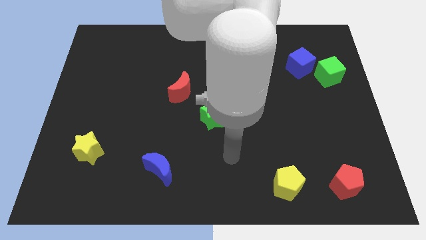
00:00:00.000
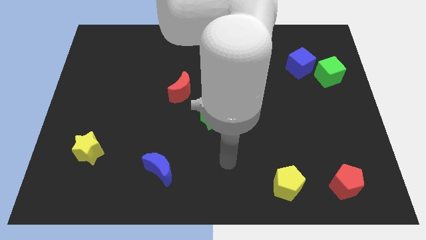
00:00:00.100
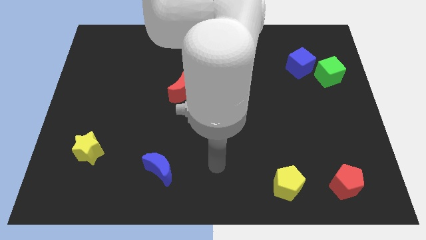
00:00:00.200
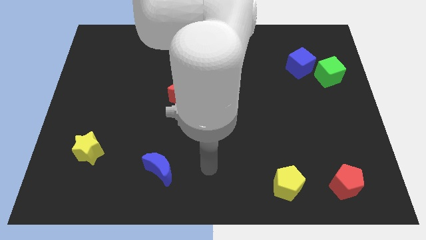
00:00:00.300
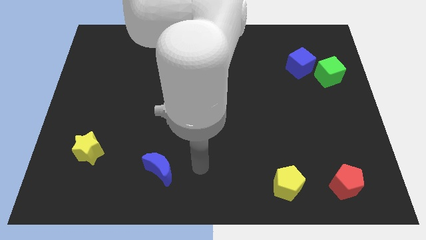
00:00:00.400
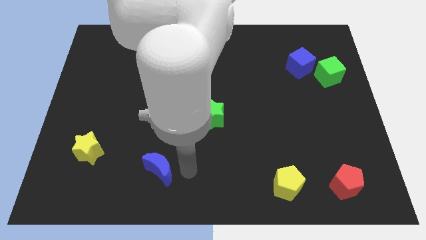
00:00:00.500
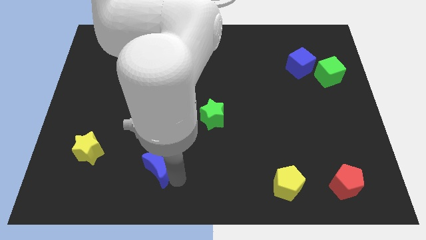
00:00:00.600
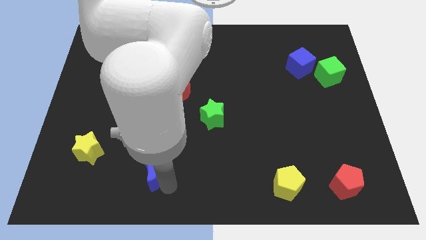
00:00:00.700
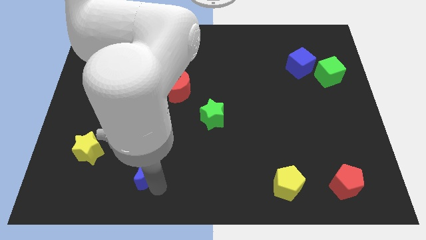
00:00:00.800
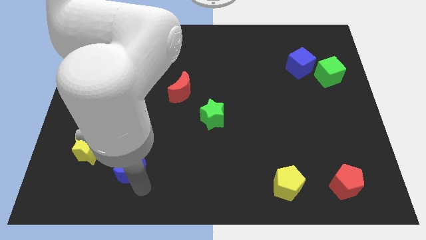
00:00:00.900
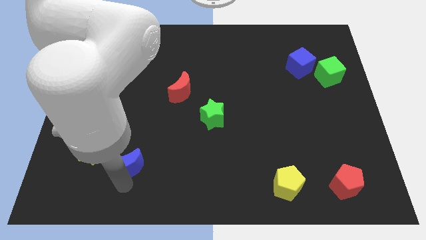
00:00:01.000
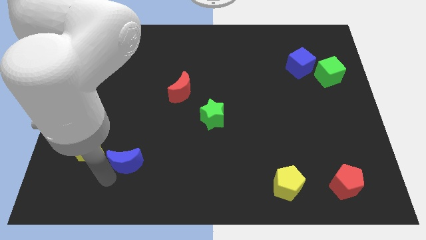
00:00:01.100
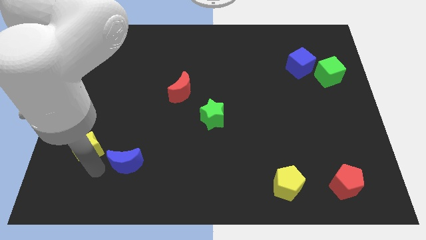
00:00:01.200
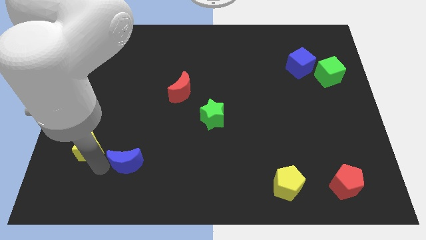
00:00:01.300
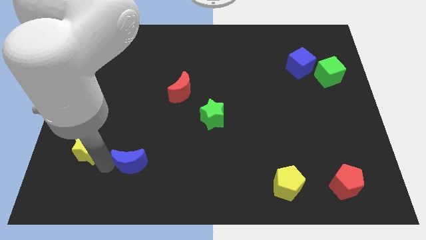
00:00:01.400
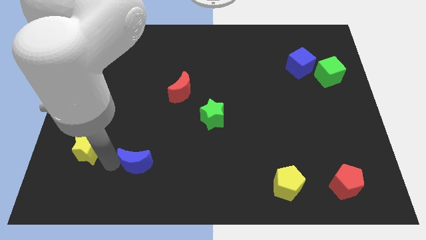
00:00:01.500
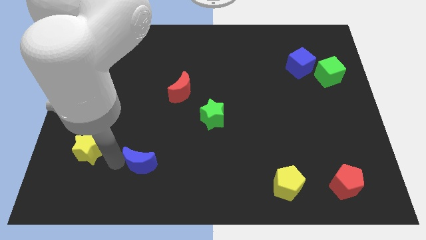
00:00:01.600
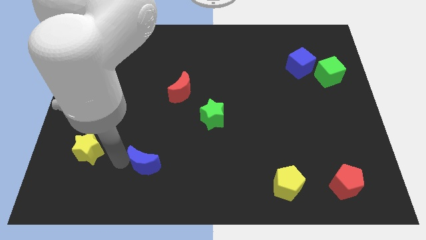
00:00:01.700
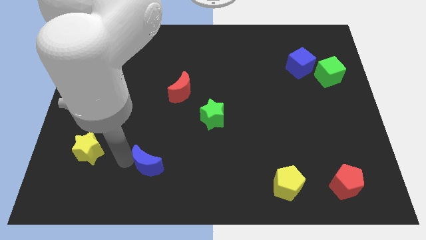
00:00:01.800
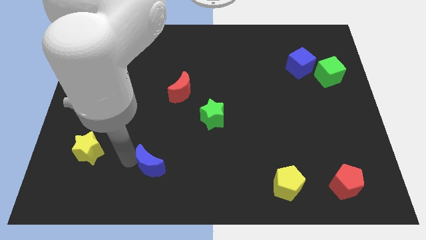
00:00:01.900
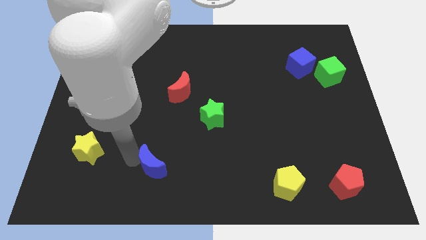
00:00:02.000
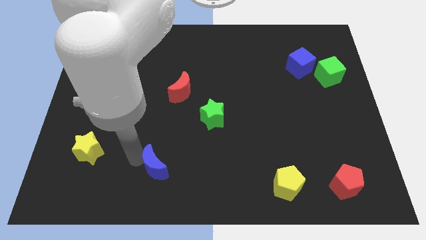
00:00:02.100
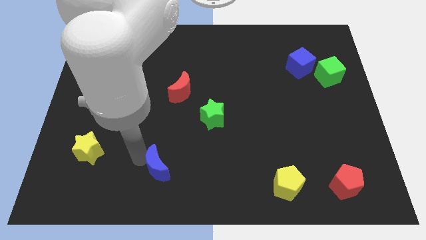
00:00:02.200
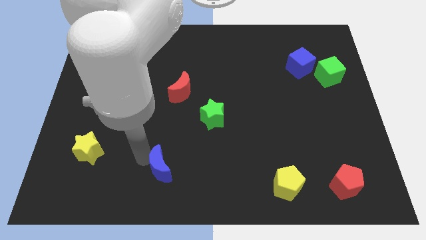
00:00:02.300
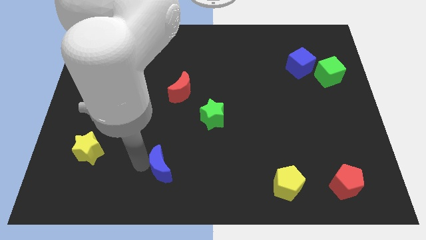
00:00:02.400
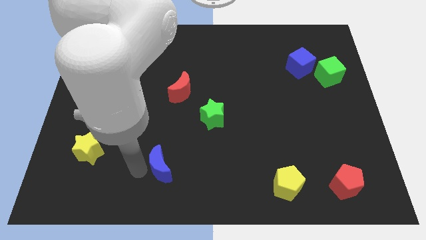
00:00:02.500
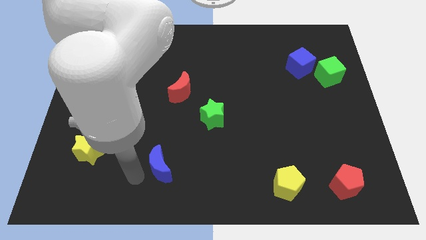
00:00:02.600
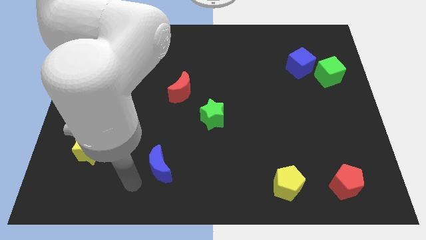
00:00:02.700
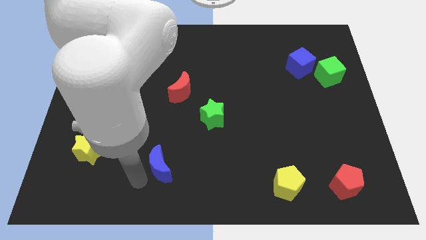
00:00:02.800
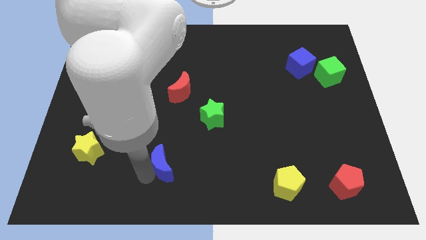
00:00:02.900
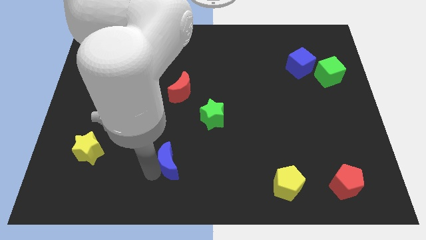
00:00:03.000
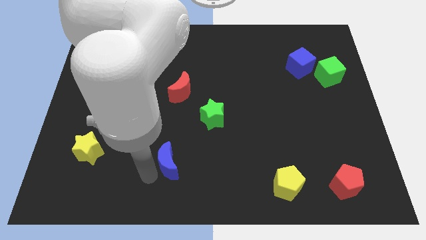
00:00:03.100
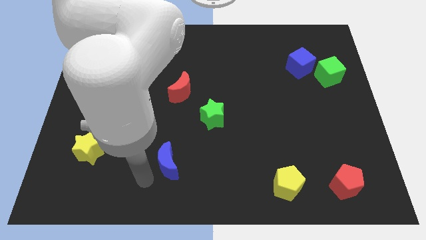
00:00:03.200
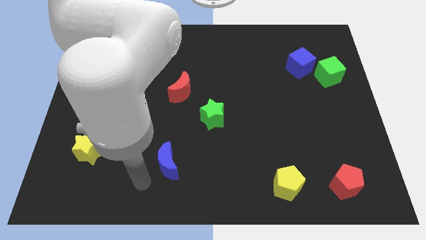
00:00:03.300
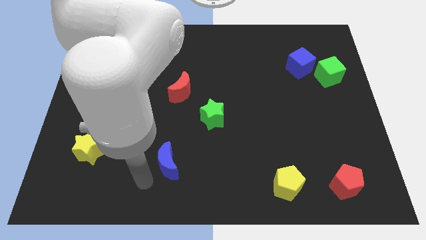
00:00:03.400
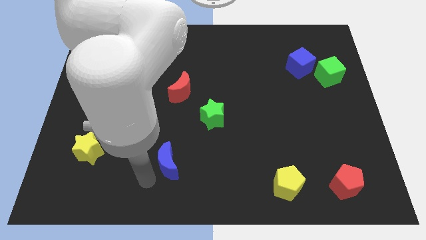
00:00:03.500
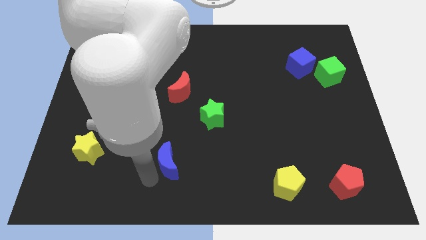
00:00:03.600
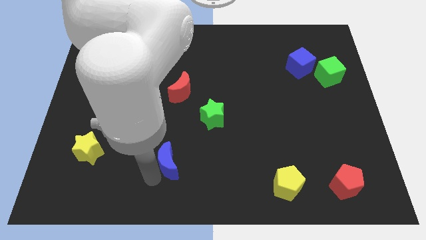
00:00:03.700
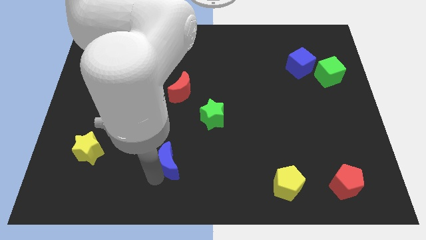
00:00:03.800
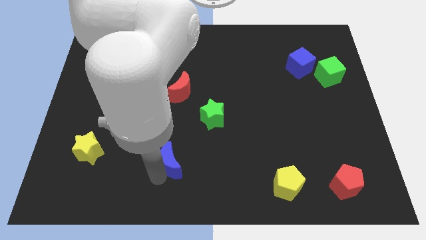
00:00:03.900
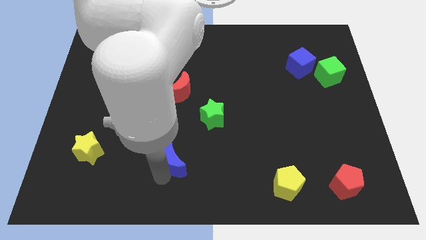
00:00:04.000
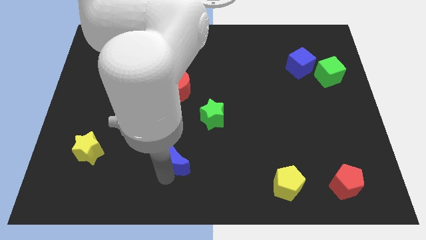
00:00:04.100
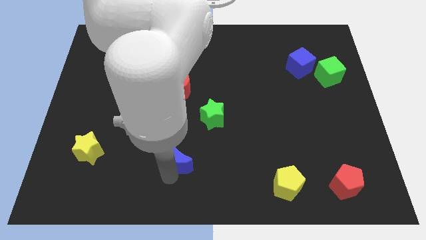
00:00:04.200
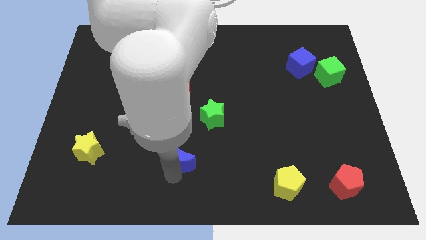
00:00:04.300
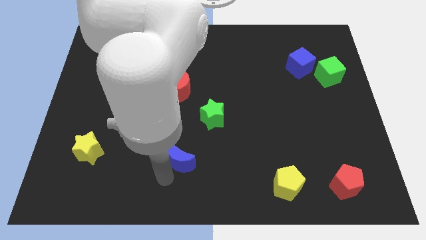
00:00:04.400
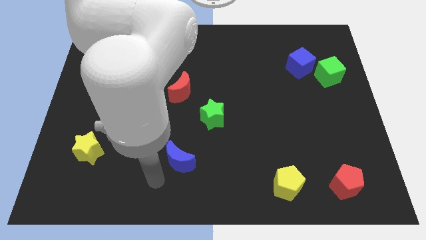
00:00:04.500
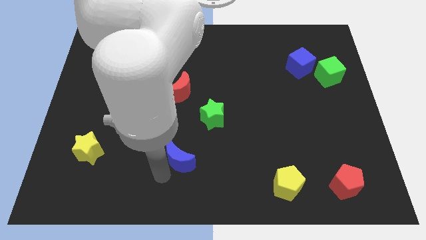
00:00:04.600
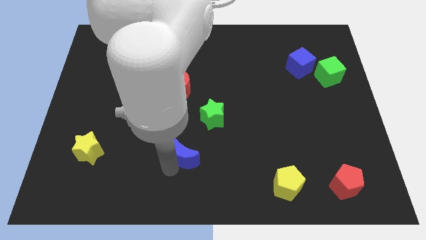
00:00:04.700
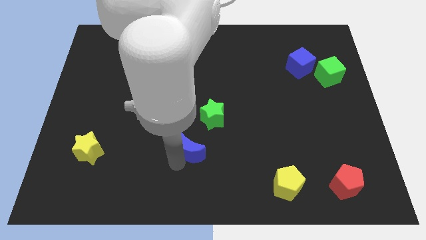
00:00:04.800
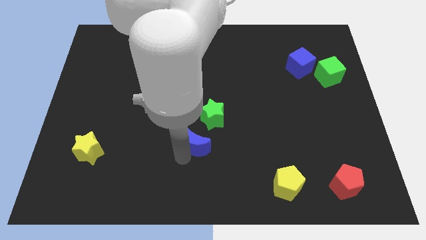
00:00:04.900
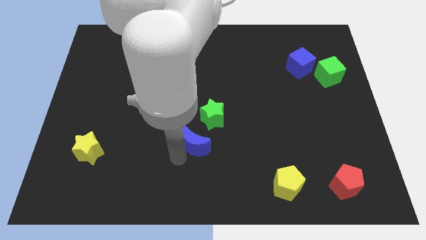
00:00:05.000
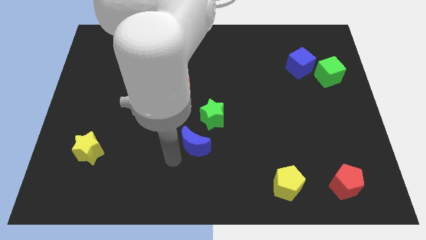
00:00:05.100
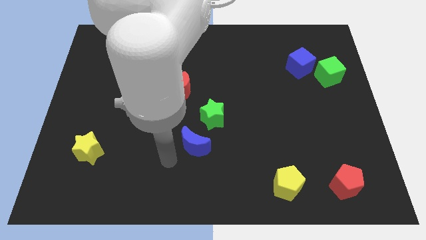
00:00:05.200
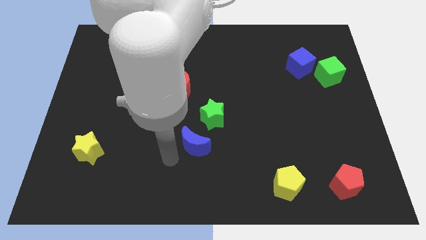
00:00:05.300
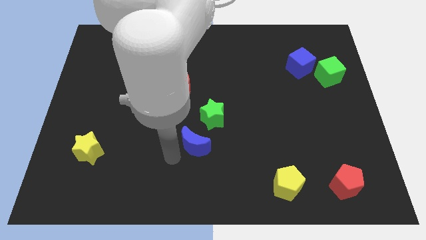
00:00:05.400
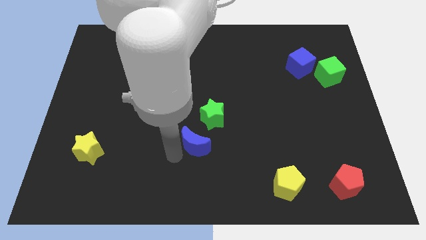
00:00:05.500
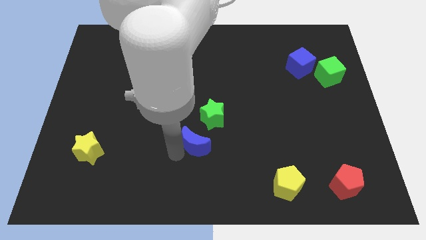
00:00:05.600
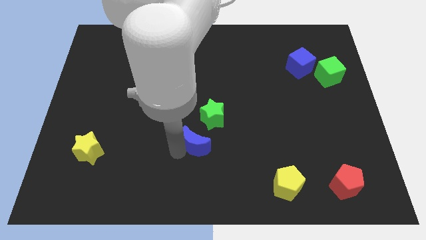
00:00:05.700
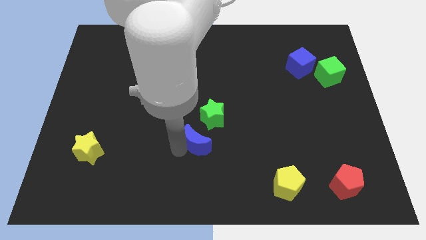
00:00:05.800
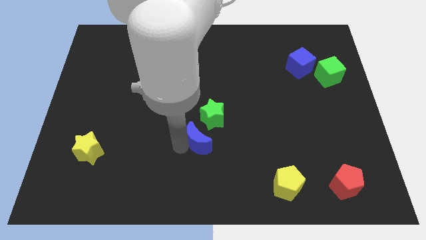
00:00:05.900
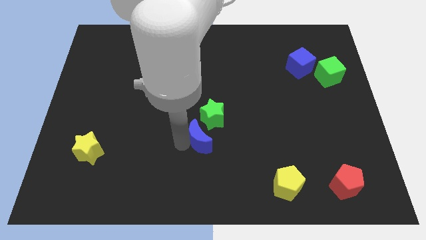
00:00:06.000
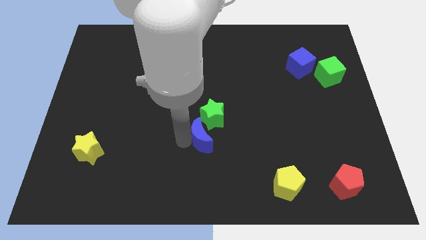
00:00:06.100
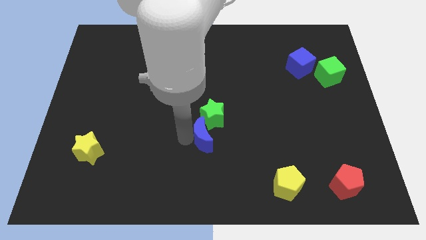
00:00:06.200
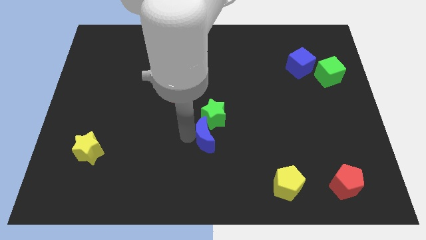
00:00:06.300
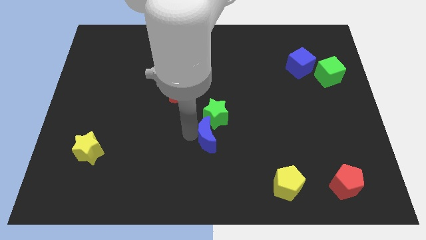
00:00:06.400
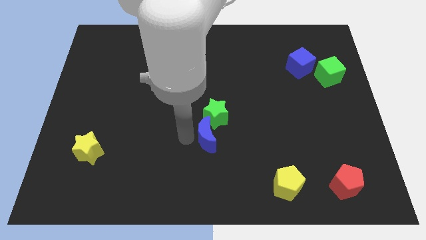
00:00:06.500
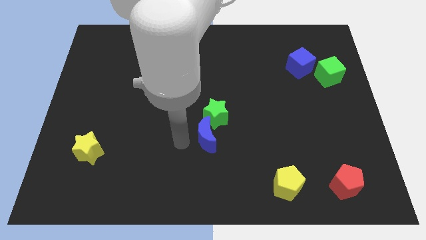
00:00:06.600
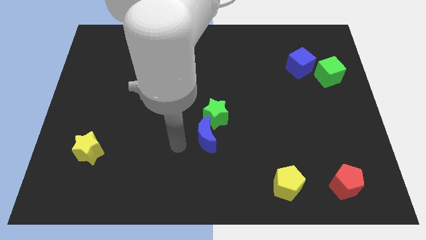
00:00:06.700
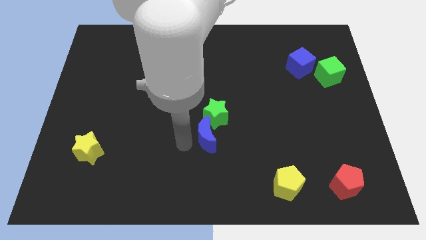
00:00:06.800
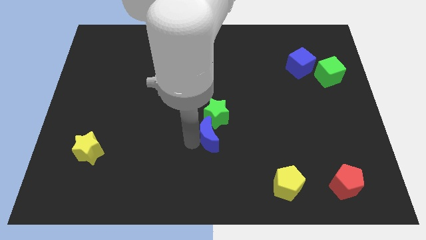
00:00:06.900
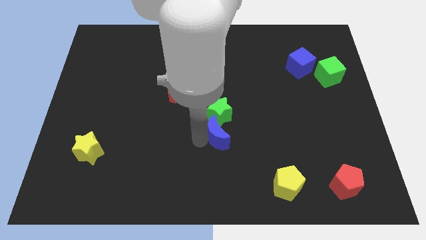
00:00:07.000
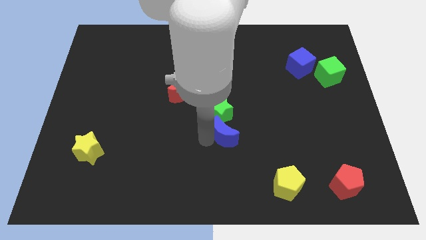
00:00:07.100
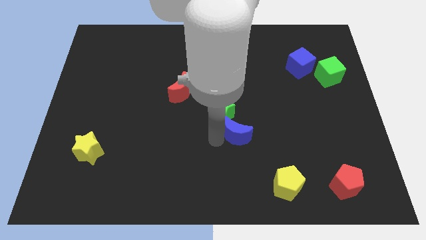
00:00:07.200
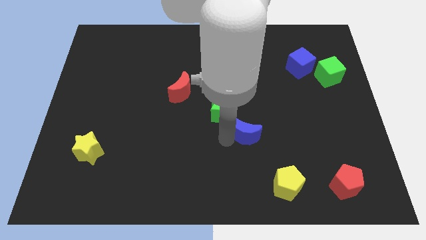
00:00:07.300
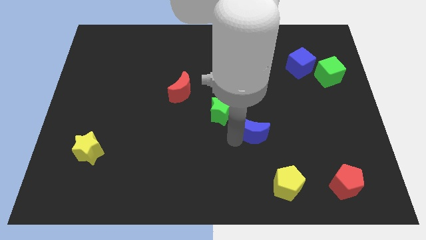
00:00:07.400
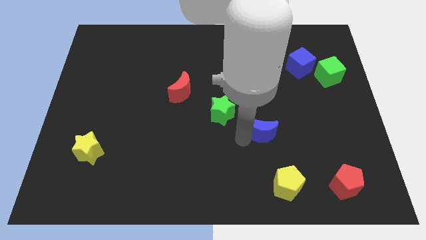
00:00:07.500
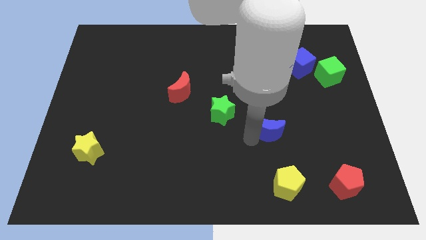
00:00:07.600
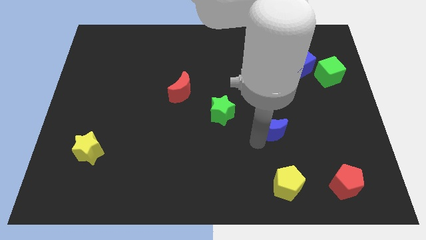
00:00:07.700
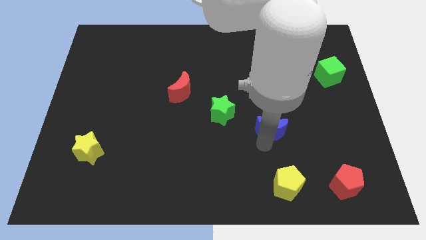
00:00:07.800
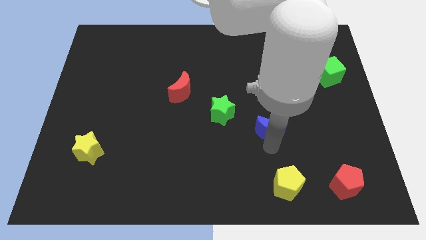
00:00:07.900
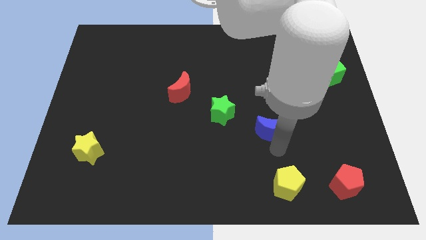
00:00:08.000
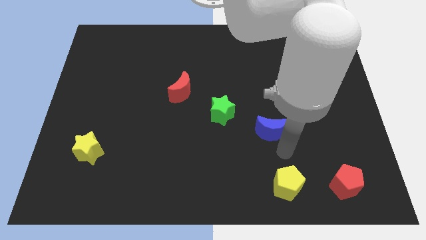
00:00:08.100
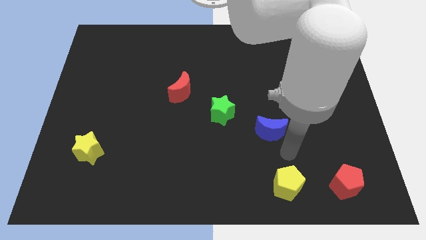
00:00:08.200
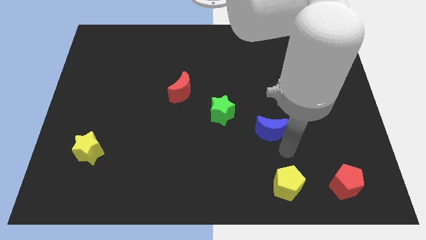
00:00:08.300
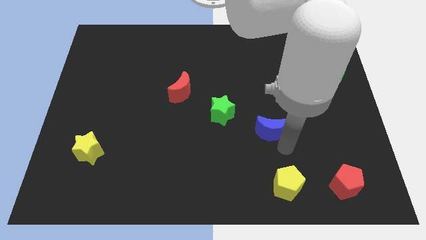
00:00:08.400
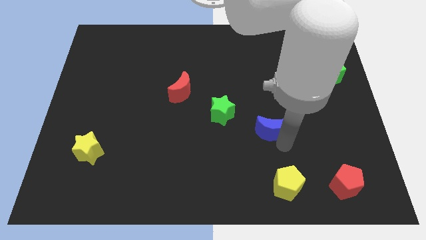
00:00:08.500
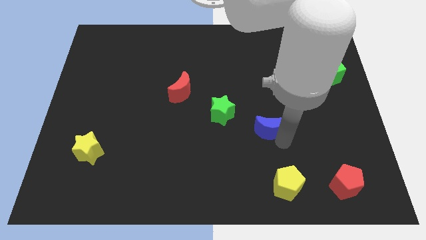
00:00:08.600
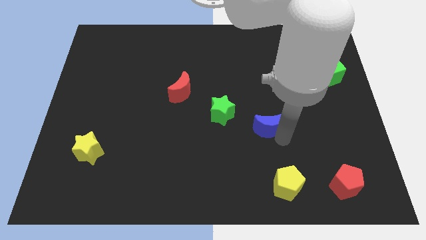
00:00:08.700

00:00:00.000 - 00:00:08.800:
push the blue moon diagonally up and to the right
